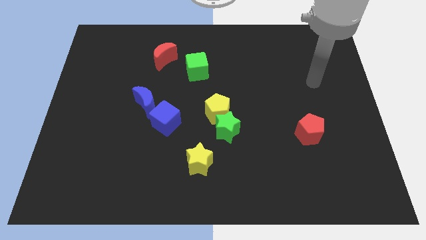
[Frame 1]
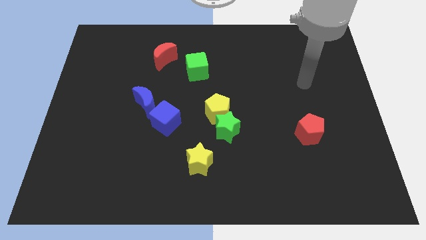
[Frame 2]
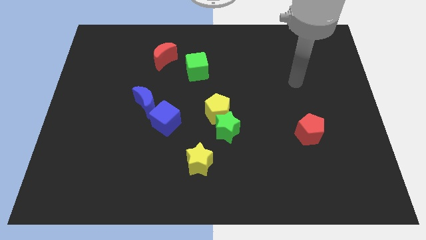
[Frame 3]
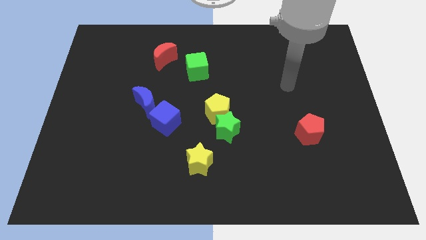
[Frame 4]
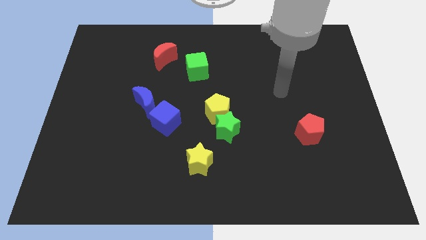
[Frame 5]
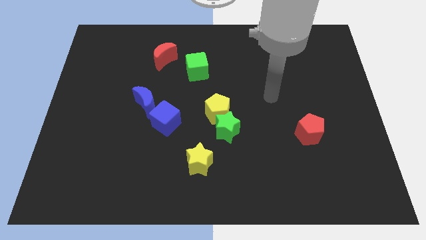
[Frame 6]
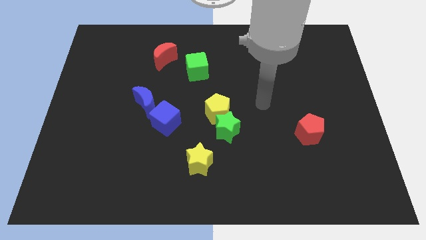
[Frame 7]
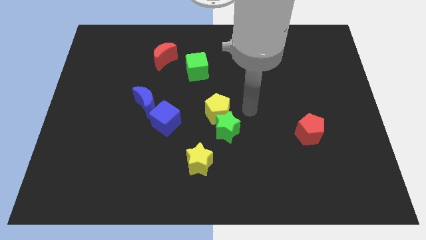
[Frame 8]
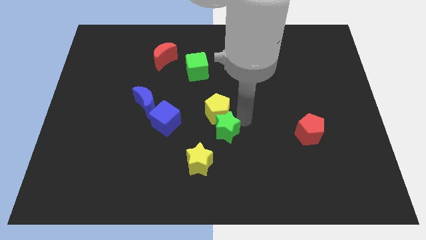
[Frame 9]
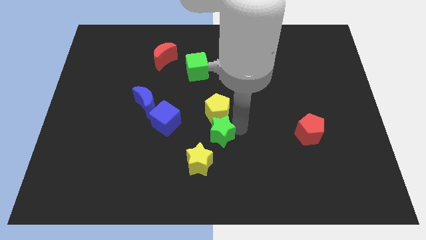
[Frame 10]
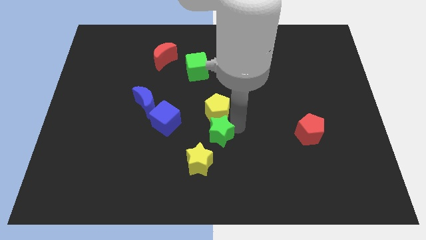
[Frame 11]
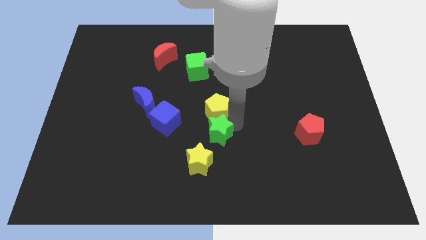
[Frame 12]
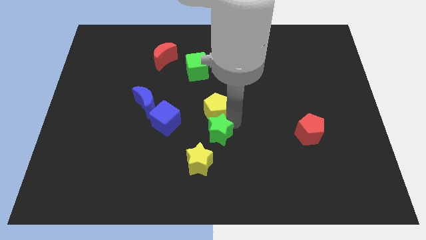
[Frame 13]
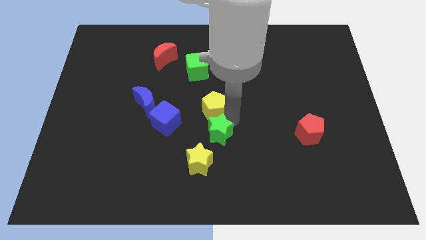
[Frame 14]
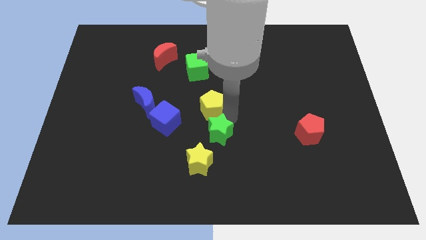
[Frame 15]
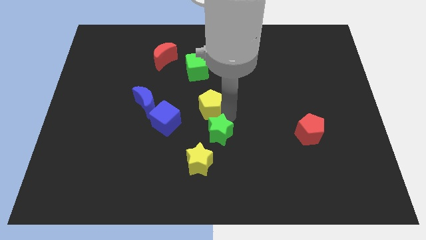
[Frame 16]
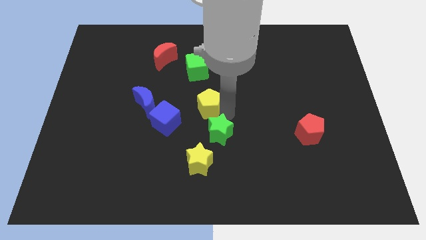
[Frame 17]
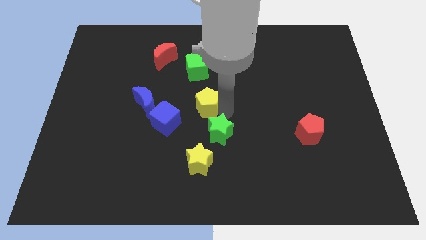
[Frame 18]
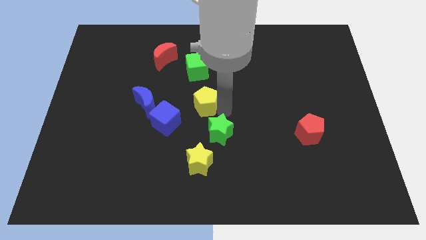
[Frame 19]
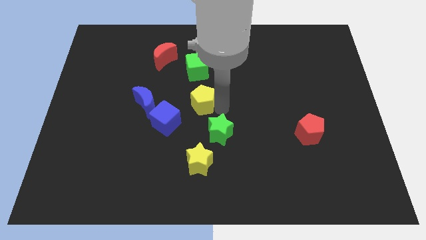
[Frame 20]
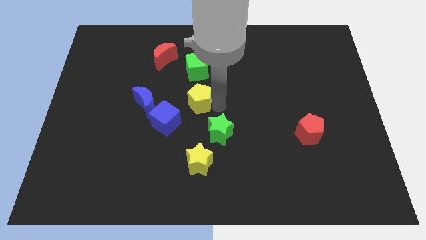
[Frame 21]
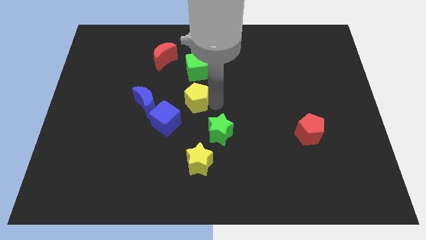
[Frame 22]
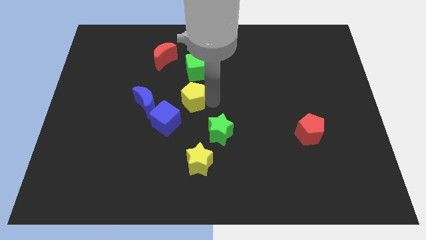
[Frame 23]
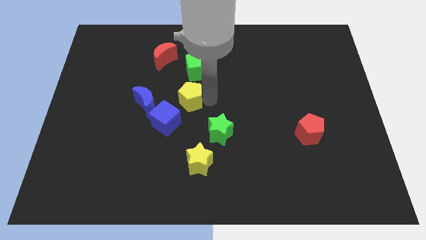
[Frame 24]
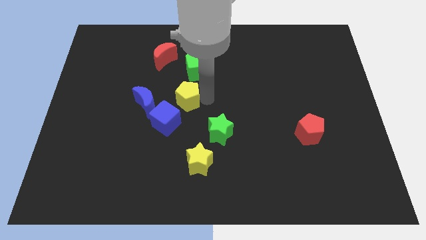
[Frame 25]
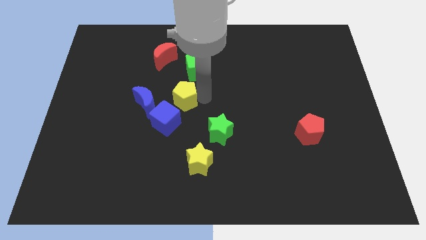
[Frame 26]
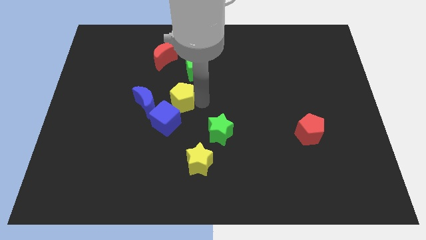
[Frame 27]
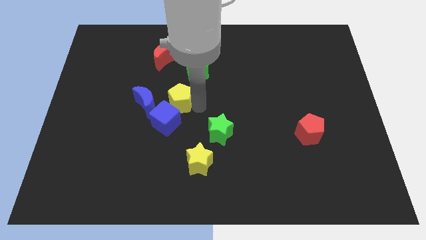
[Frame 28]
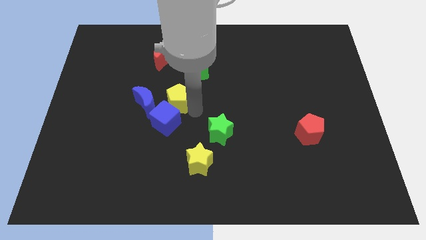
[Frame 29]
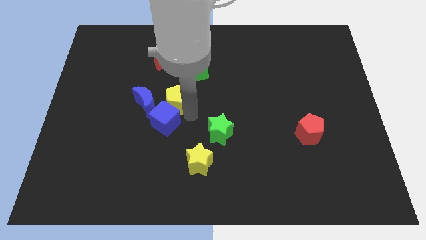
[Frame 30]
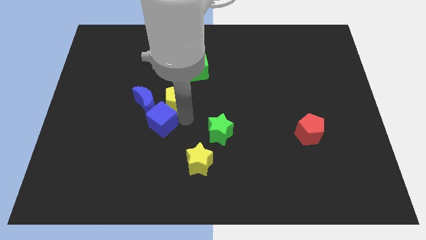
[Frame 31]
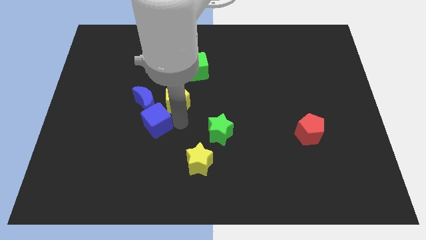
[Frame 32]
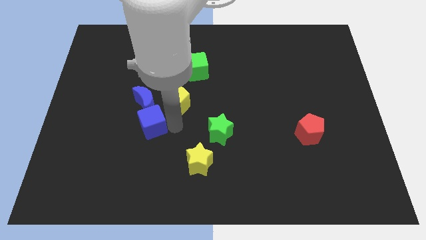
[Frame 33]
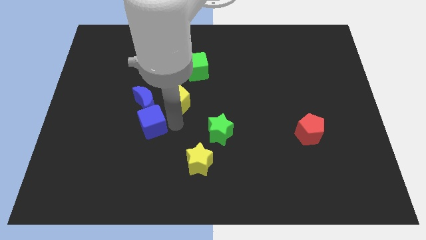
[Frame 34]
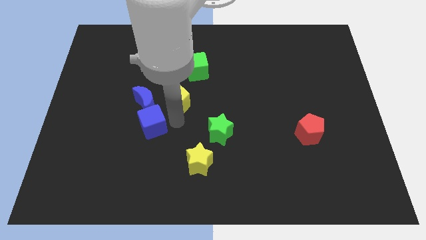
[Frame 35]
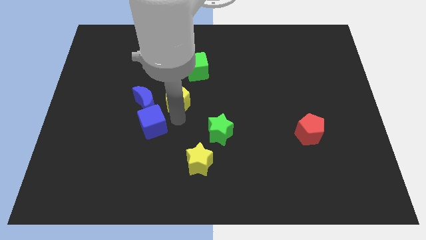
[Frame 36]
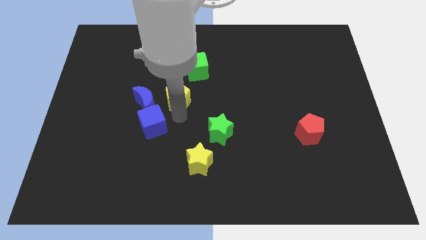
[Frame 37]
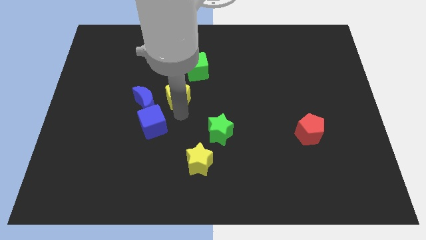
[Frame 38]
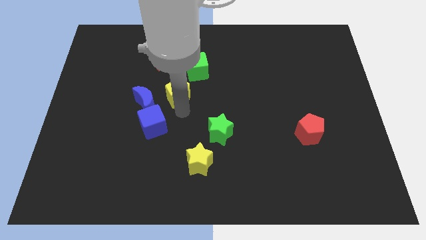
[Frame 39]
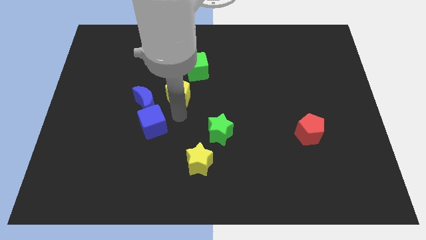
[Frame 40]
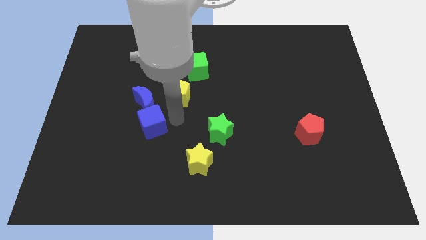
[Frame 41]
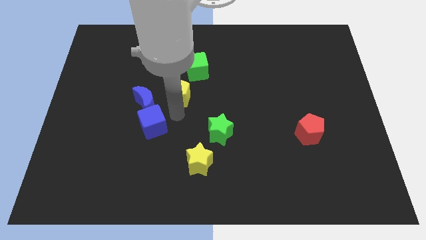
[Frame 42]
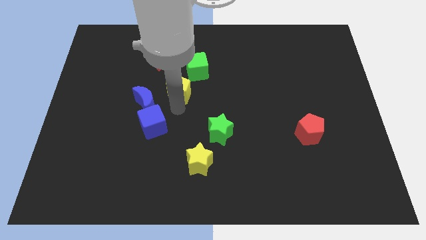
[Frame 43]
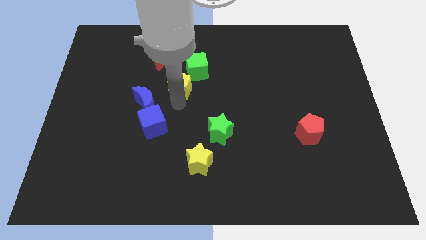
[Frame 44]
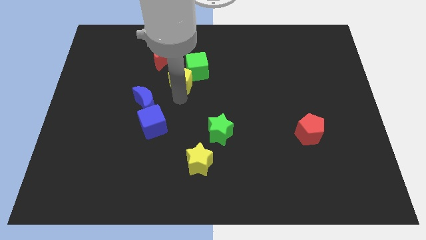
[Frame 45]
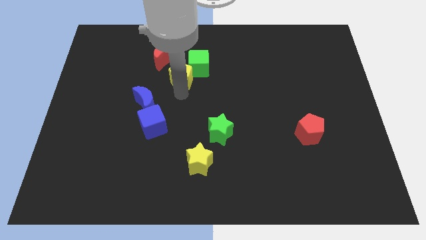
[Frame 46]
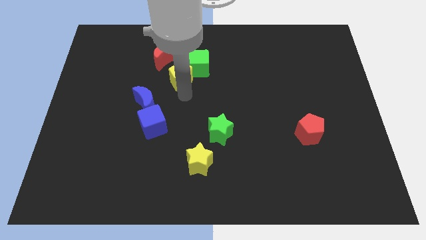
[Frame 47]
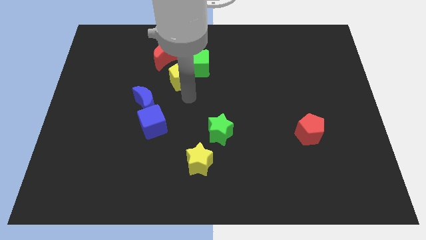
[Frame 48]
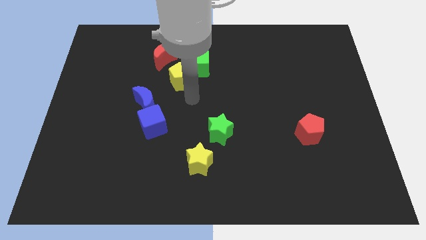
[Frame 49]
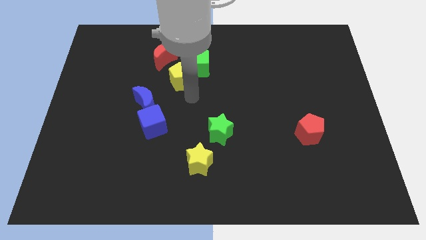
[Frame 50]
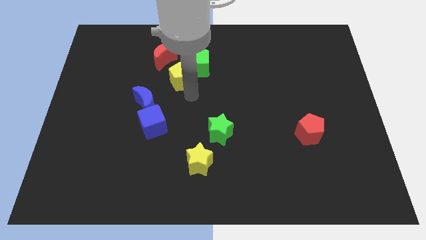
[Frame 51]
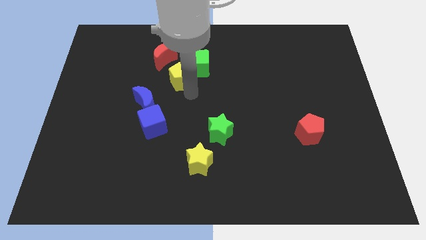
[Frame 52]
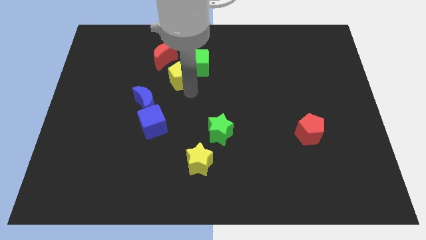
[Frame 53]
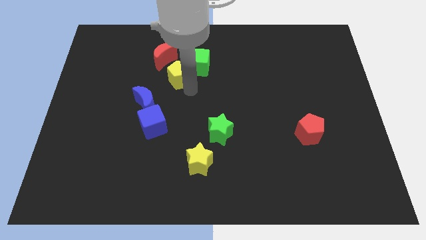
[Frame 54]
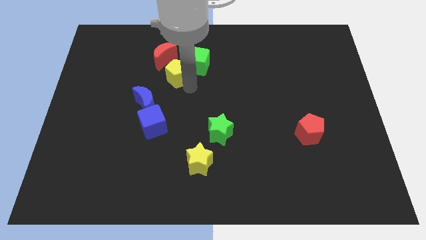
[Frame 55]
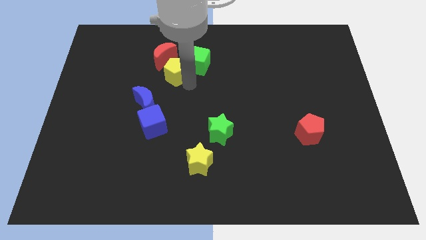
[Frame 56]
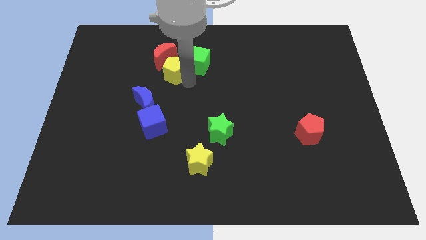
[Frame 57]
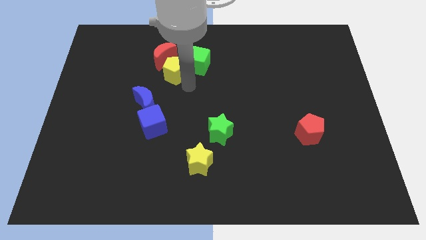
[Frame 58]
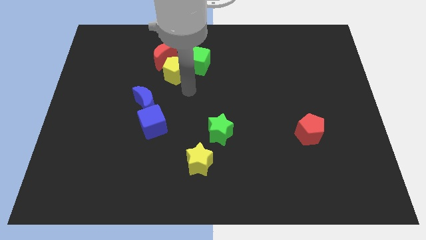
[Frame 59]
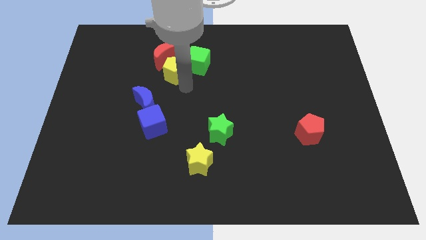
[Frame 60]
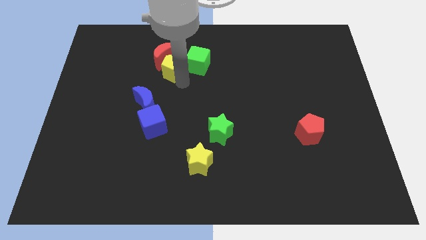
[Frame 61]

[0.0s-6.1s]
move the yellow pentagon next to the red moon
